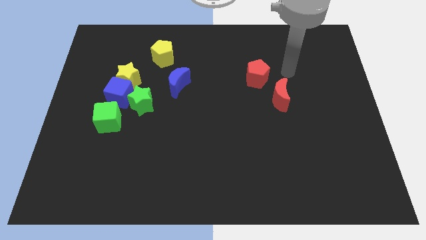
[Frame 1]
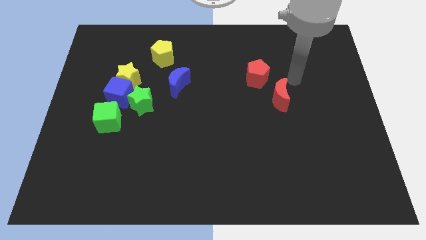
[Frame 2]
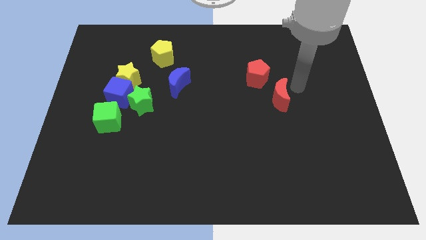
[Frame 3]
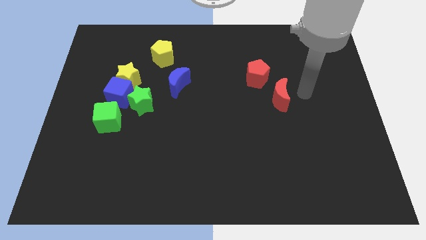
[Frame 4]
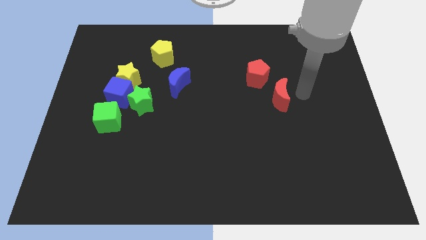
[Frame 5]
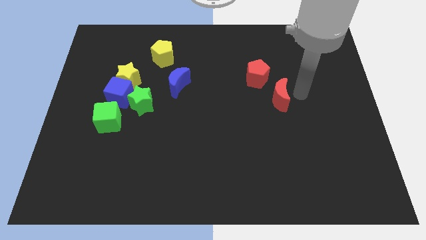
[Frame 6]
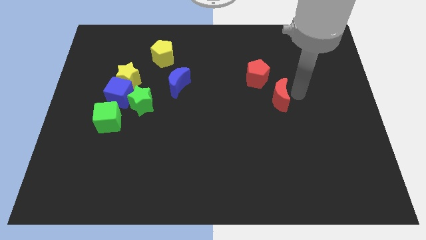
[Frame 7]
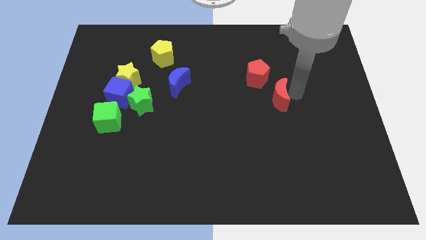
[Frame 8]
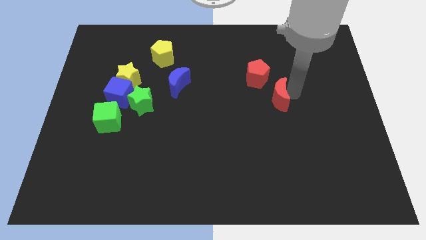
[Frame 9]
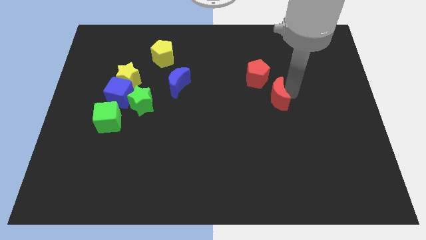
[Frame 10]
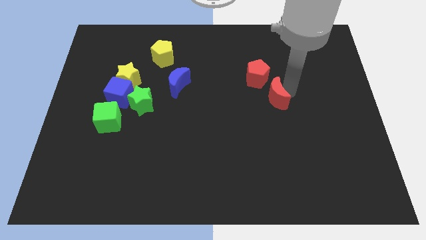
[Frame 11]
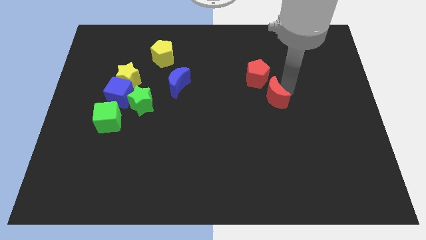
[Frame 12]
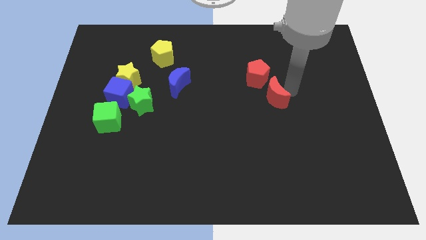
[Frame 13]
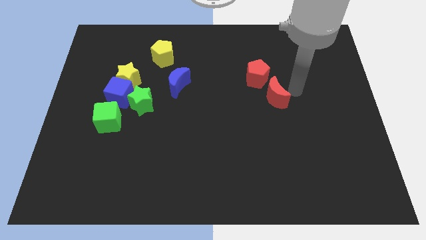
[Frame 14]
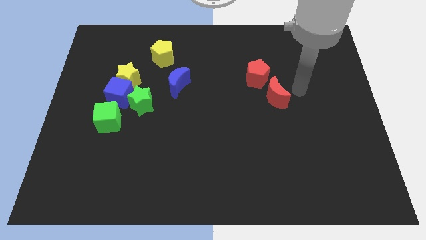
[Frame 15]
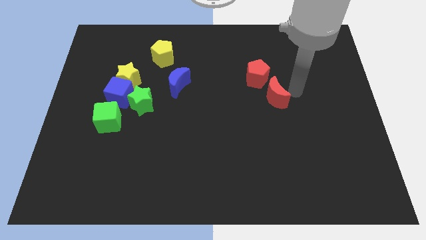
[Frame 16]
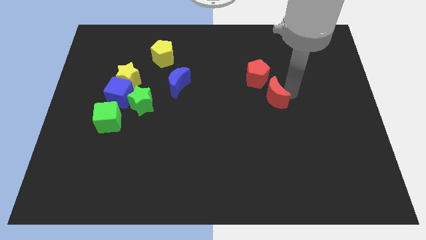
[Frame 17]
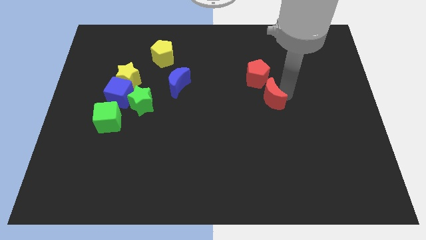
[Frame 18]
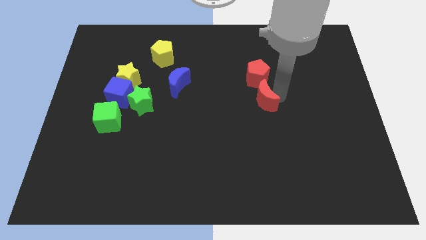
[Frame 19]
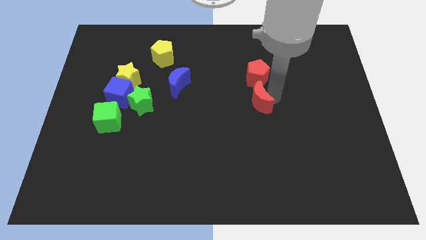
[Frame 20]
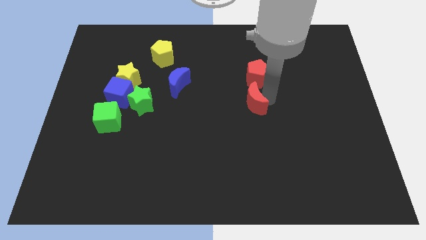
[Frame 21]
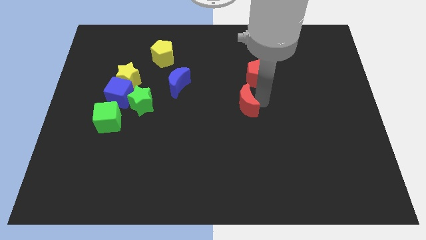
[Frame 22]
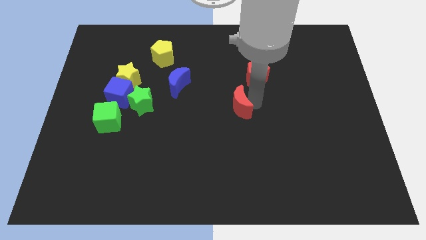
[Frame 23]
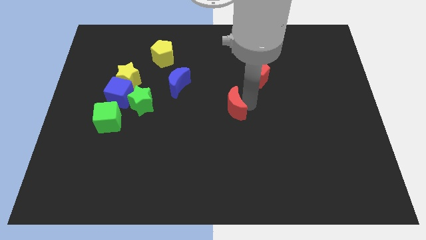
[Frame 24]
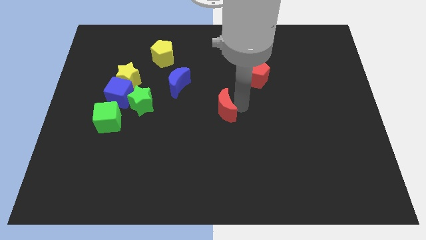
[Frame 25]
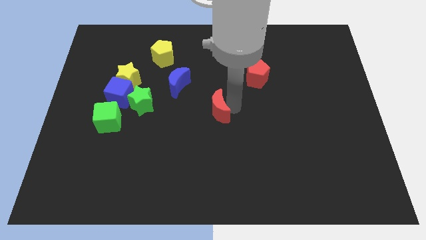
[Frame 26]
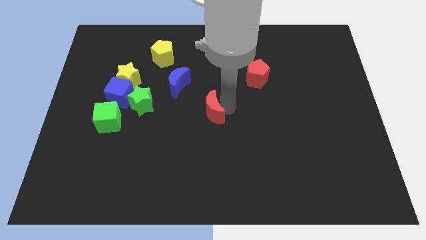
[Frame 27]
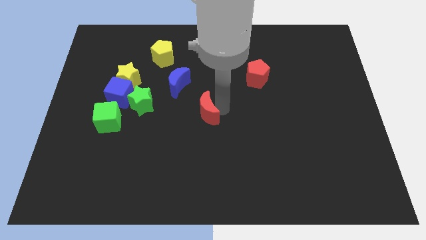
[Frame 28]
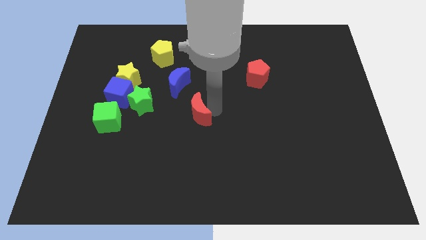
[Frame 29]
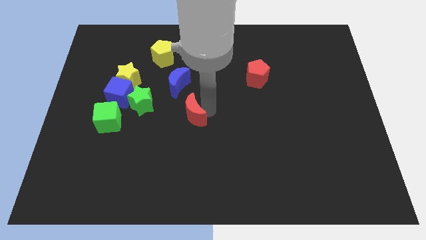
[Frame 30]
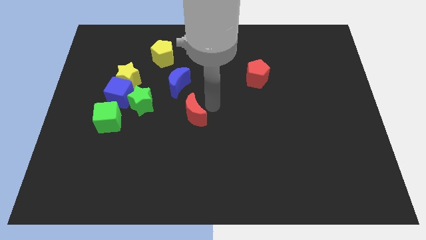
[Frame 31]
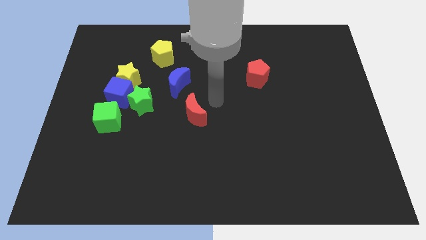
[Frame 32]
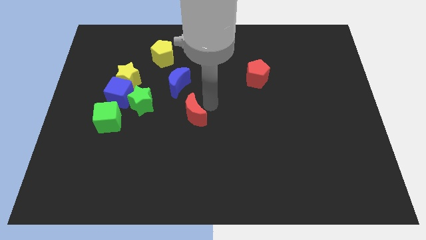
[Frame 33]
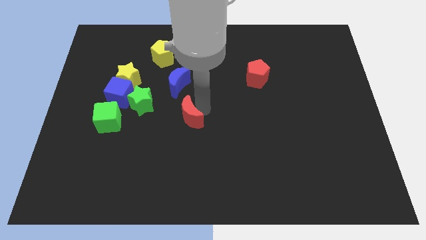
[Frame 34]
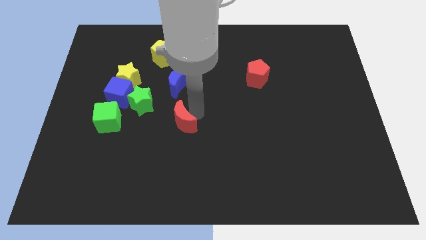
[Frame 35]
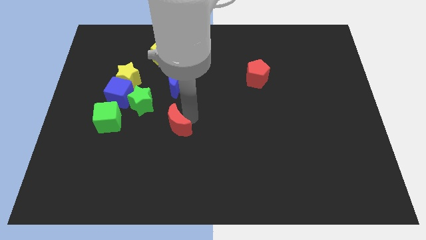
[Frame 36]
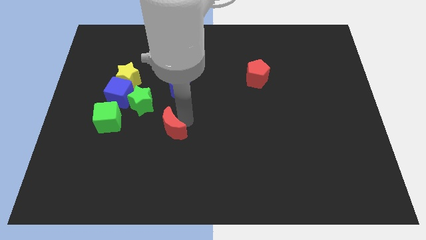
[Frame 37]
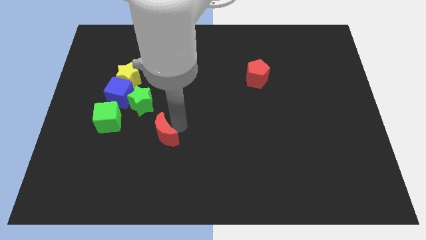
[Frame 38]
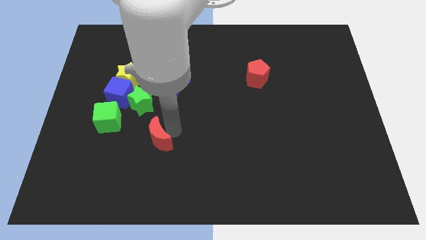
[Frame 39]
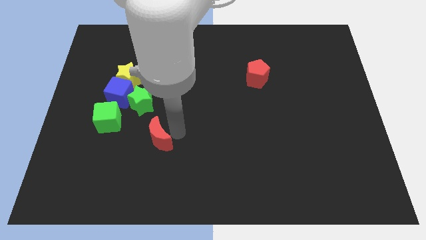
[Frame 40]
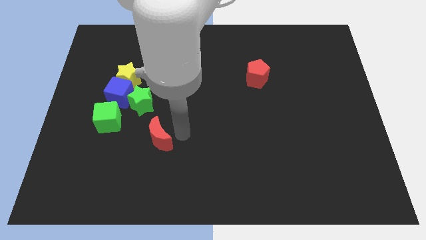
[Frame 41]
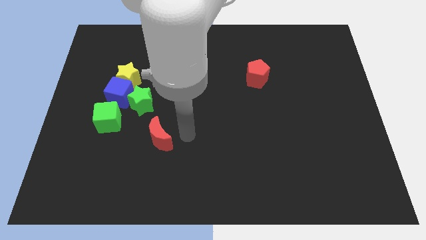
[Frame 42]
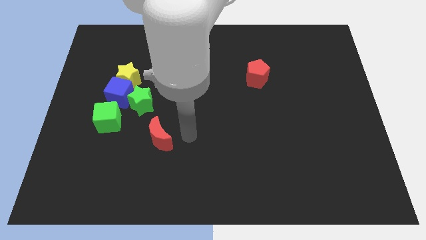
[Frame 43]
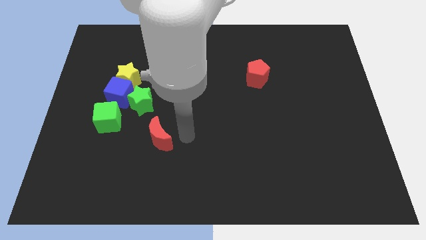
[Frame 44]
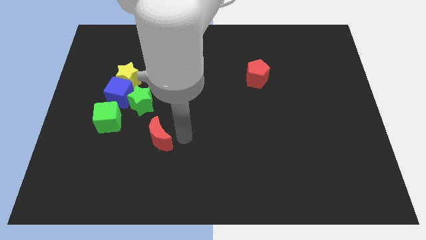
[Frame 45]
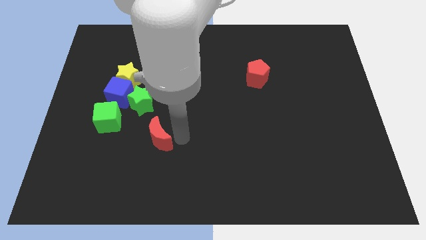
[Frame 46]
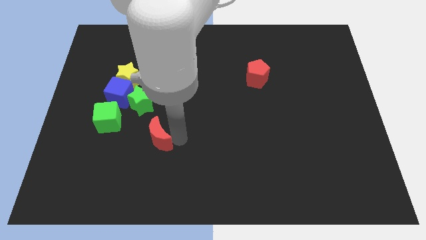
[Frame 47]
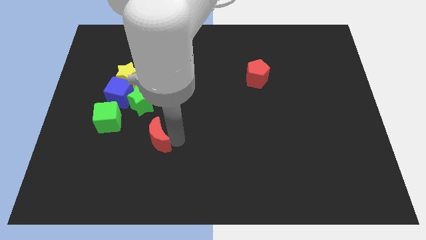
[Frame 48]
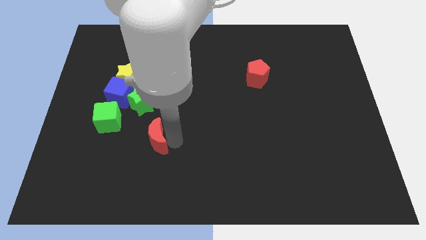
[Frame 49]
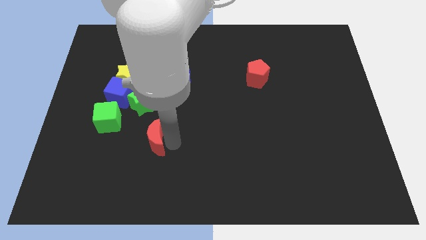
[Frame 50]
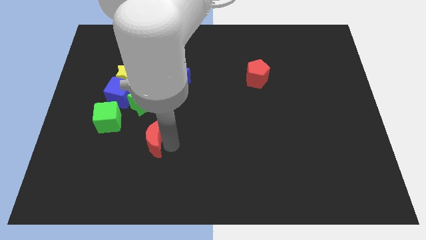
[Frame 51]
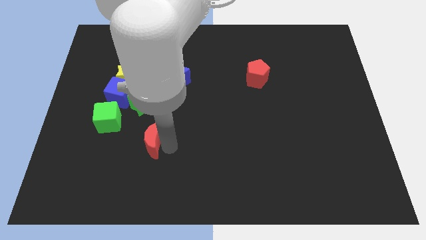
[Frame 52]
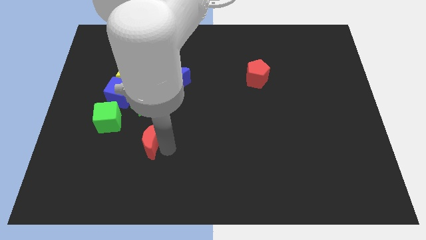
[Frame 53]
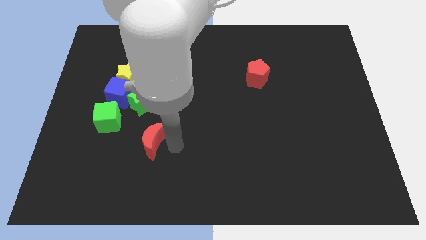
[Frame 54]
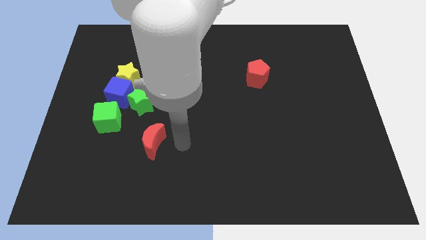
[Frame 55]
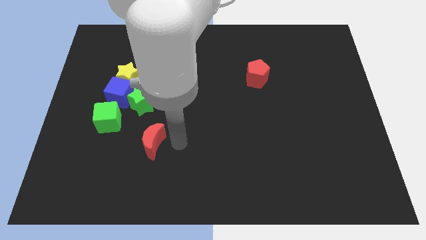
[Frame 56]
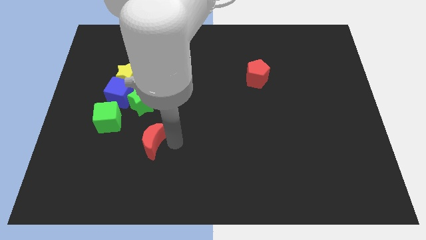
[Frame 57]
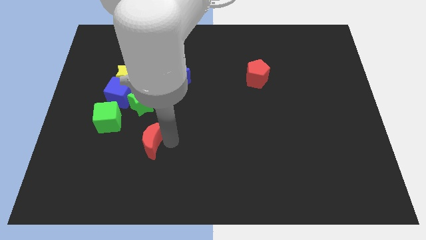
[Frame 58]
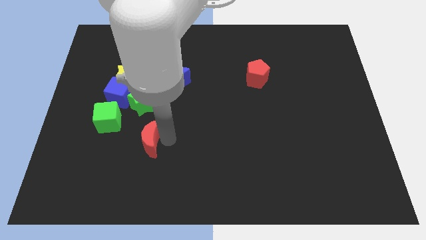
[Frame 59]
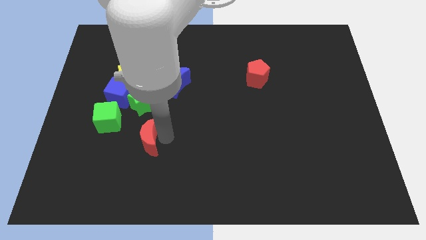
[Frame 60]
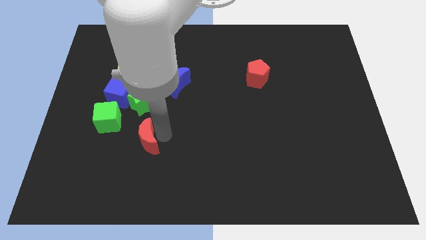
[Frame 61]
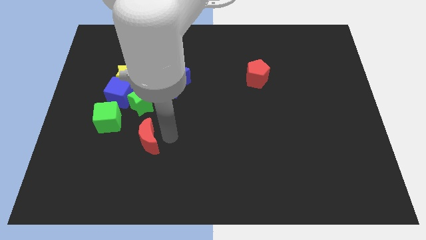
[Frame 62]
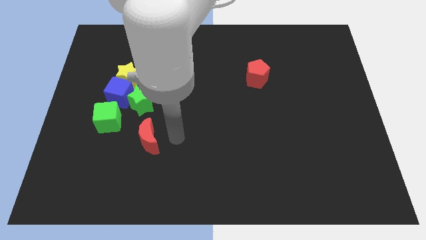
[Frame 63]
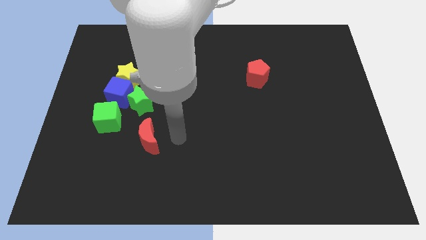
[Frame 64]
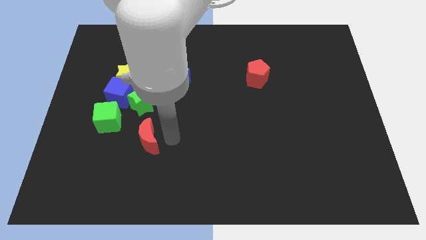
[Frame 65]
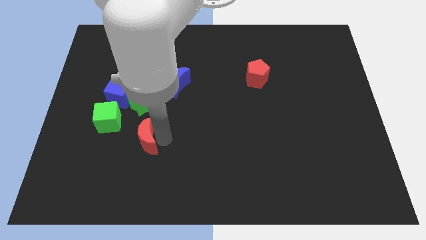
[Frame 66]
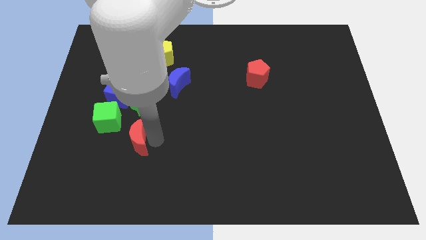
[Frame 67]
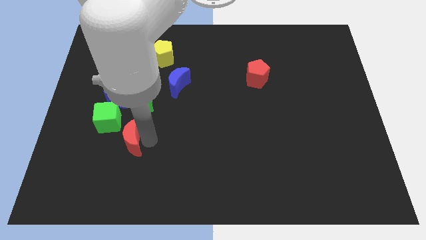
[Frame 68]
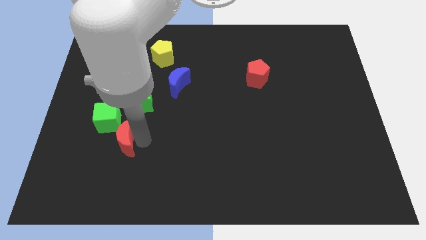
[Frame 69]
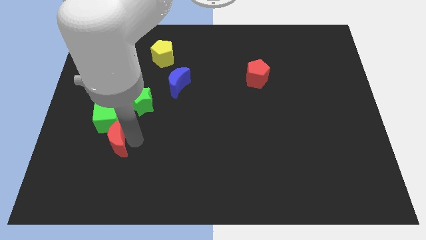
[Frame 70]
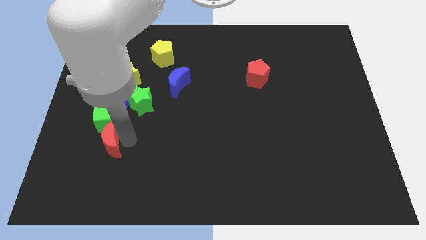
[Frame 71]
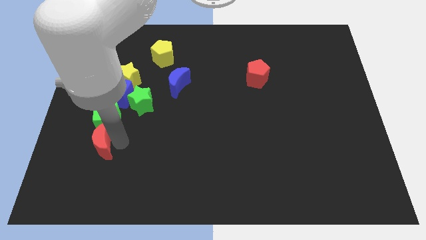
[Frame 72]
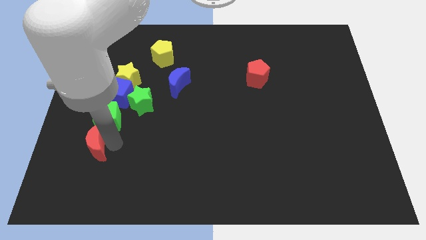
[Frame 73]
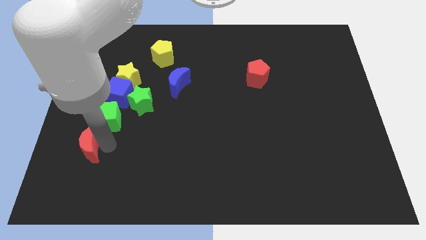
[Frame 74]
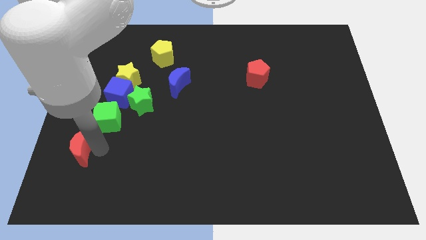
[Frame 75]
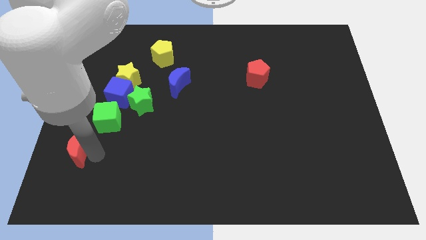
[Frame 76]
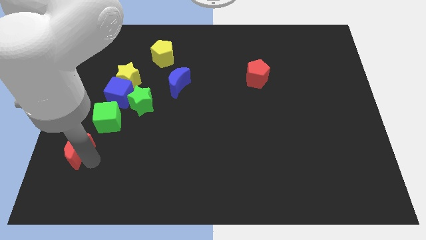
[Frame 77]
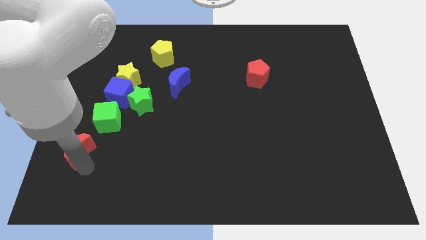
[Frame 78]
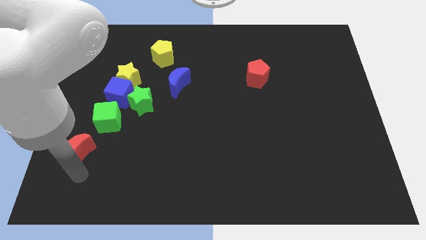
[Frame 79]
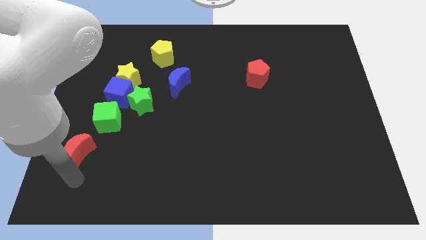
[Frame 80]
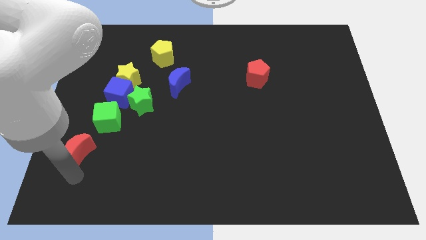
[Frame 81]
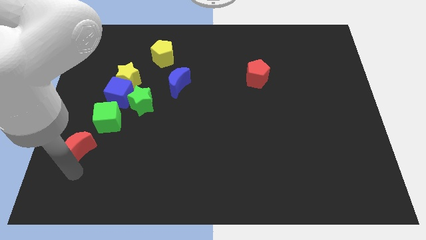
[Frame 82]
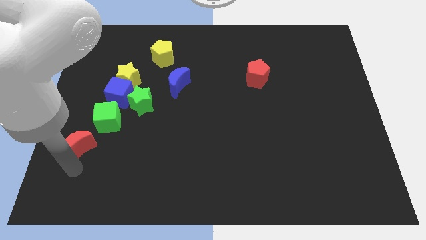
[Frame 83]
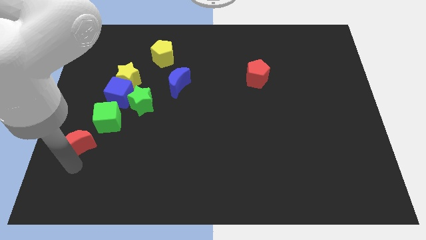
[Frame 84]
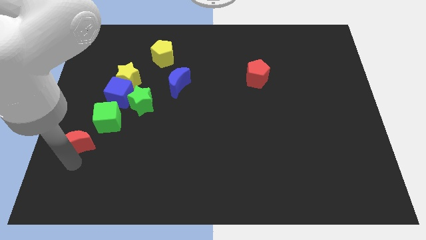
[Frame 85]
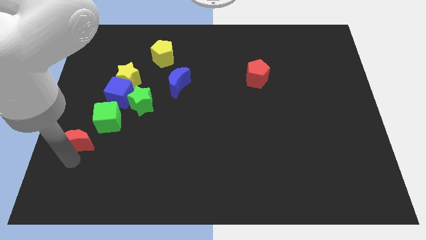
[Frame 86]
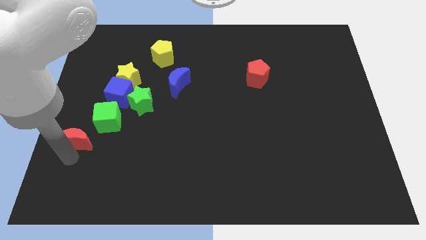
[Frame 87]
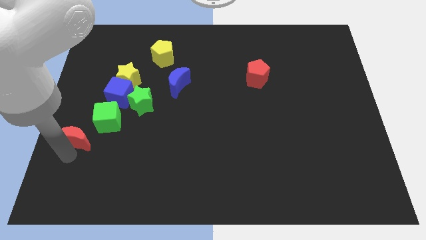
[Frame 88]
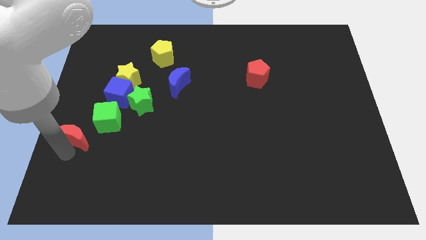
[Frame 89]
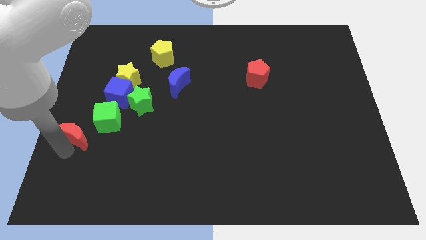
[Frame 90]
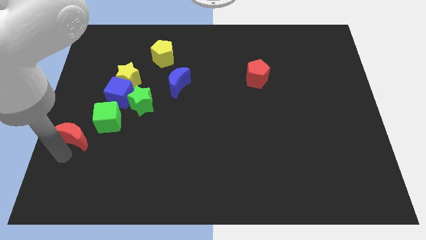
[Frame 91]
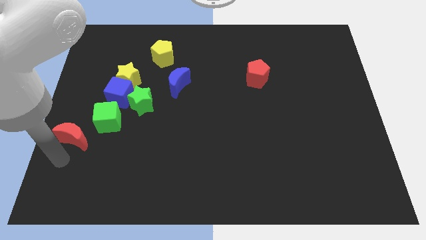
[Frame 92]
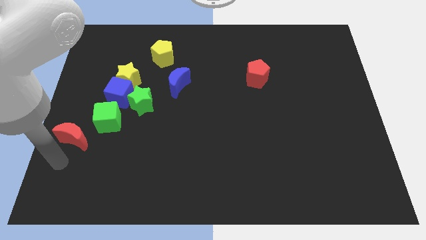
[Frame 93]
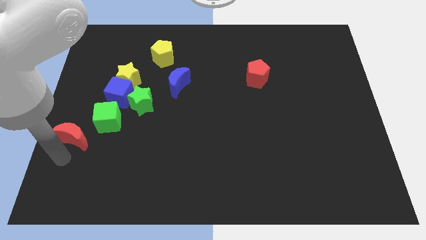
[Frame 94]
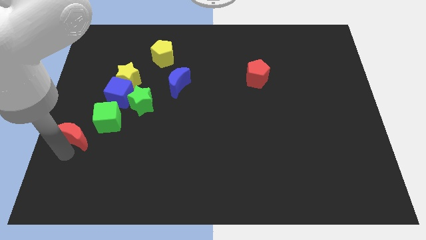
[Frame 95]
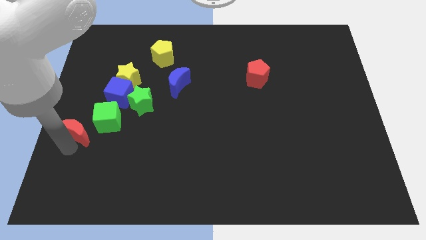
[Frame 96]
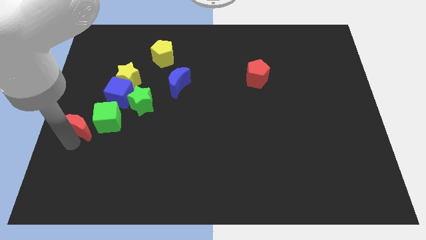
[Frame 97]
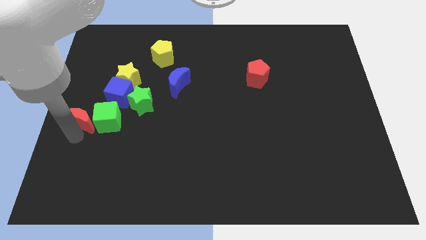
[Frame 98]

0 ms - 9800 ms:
move the red moon to the top left of the green cube
